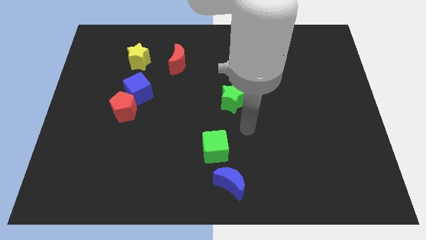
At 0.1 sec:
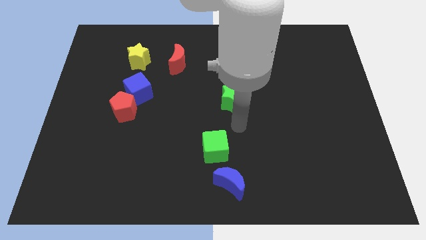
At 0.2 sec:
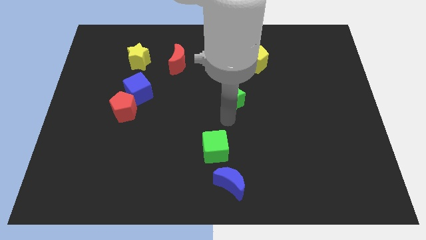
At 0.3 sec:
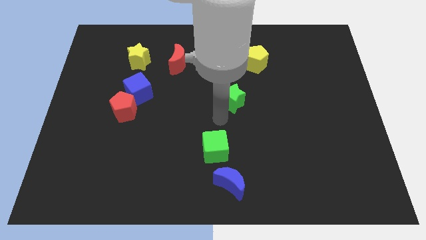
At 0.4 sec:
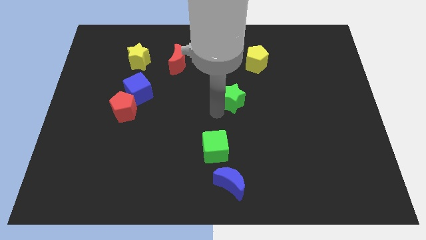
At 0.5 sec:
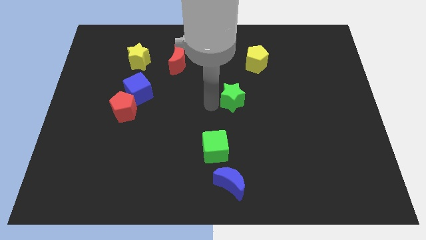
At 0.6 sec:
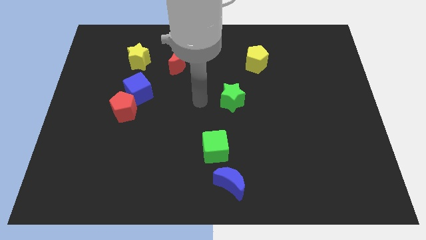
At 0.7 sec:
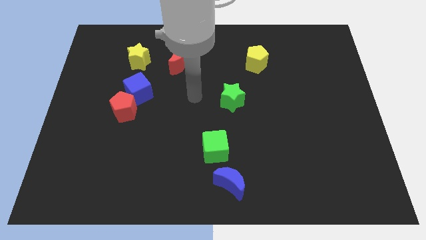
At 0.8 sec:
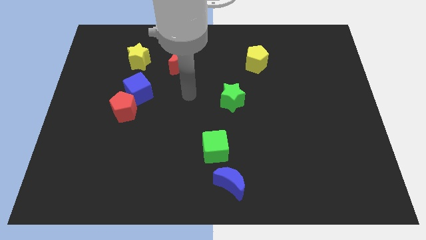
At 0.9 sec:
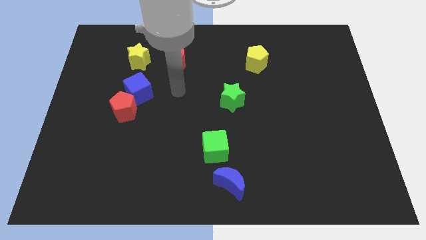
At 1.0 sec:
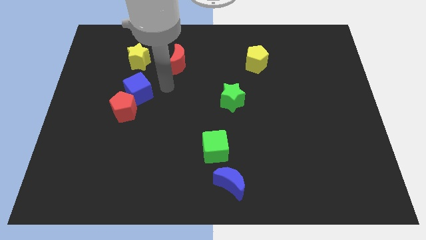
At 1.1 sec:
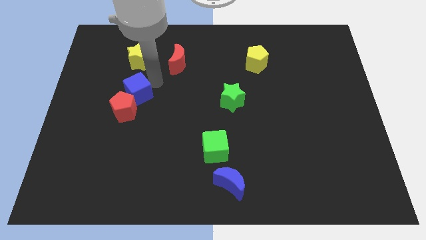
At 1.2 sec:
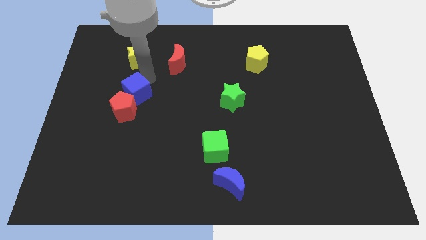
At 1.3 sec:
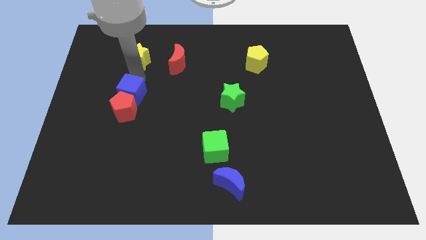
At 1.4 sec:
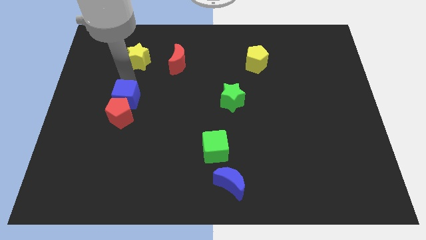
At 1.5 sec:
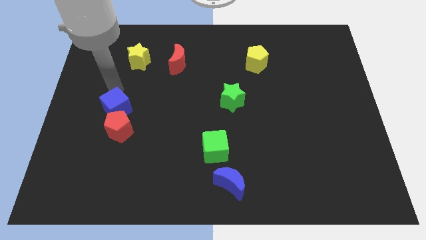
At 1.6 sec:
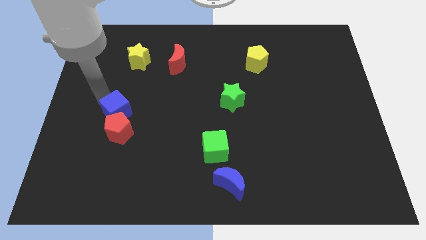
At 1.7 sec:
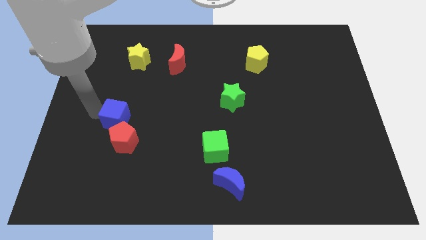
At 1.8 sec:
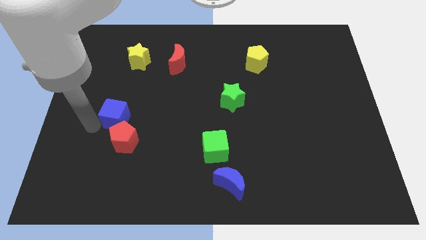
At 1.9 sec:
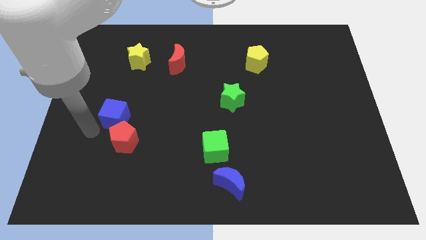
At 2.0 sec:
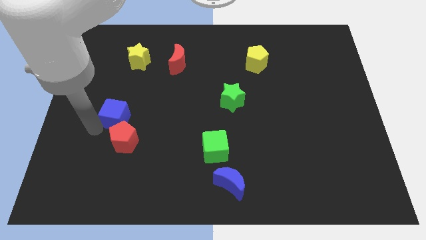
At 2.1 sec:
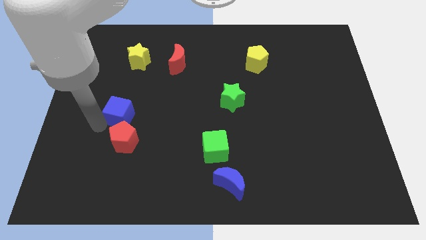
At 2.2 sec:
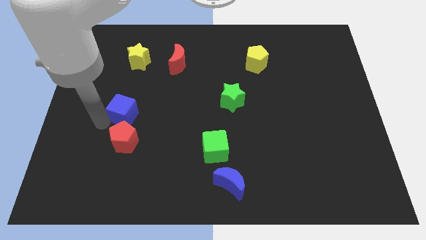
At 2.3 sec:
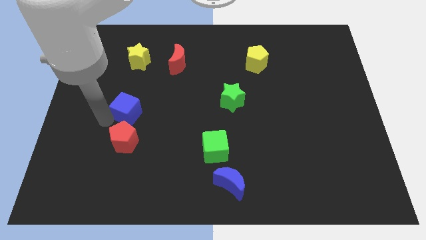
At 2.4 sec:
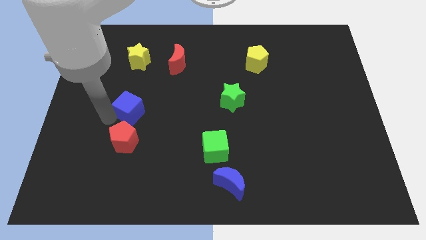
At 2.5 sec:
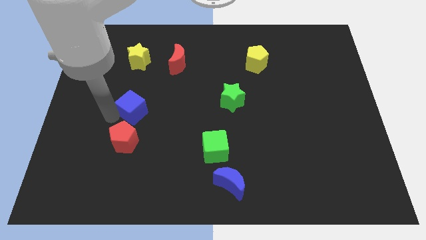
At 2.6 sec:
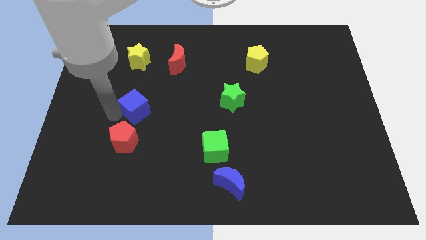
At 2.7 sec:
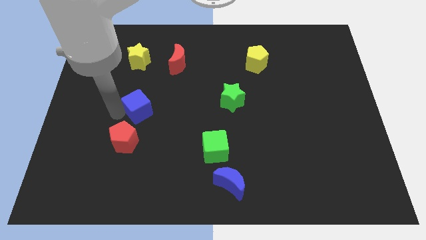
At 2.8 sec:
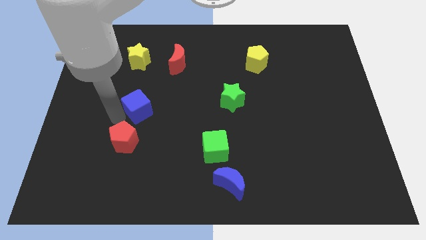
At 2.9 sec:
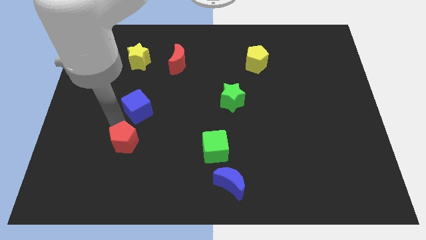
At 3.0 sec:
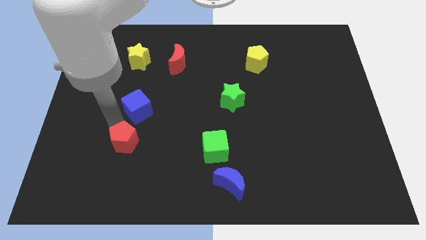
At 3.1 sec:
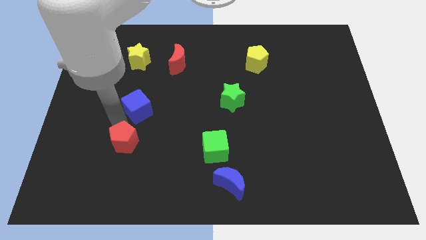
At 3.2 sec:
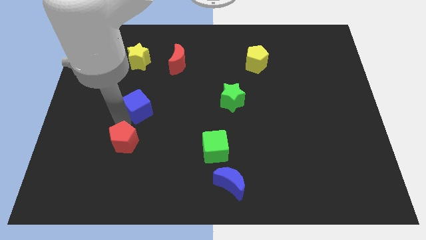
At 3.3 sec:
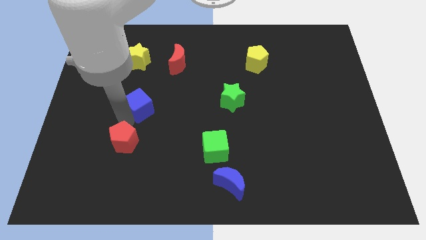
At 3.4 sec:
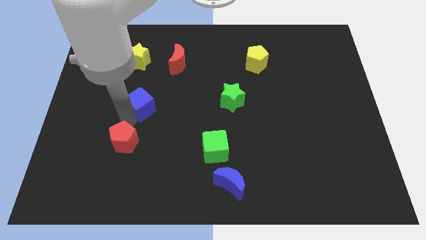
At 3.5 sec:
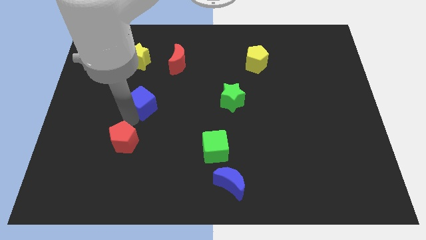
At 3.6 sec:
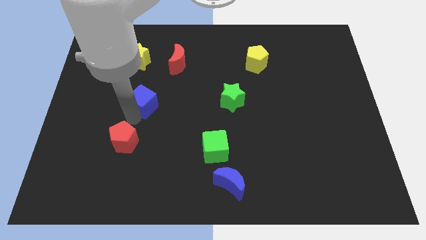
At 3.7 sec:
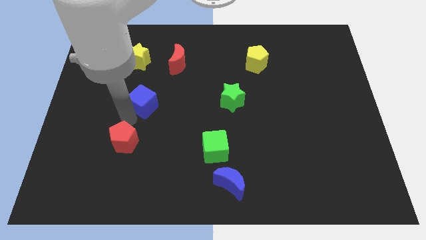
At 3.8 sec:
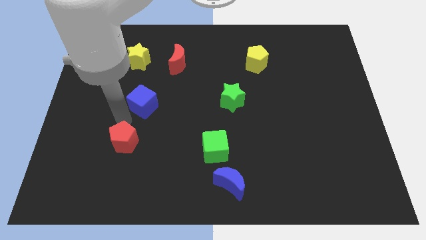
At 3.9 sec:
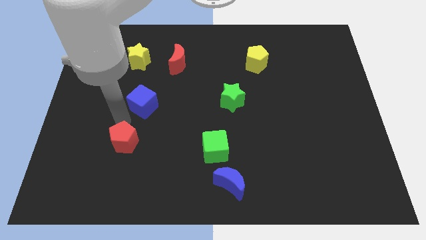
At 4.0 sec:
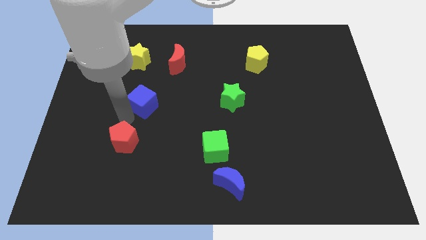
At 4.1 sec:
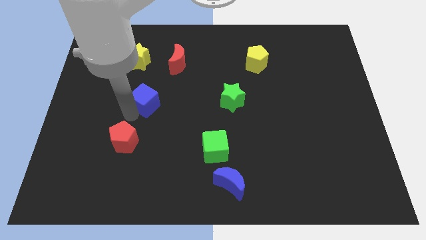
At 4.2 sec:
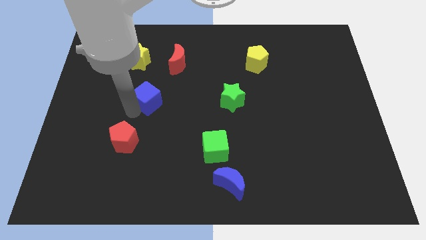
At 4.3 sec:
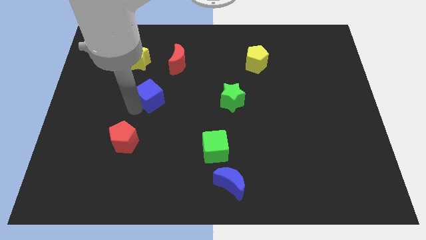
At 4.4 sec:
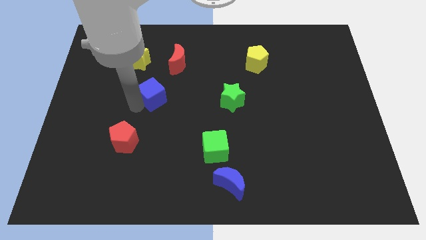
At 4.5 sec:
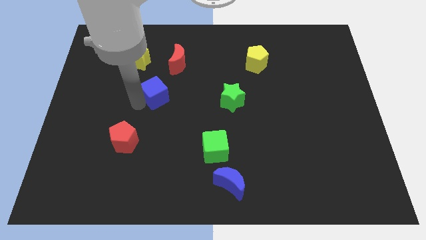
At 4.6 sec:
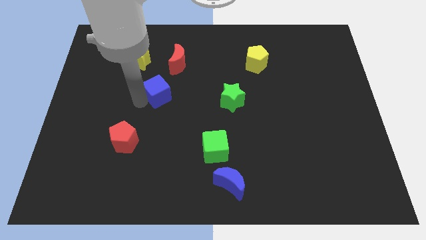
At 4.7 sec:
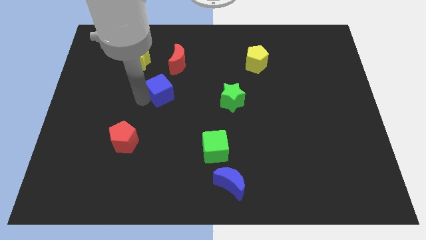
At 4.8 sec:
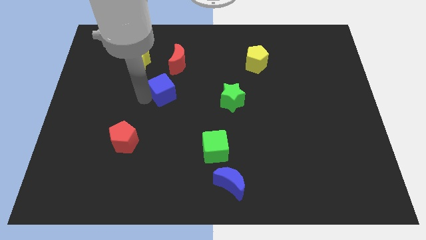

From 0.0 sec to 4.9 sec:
push the blue cube to the middle

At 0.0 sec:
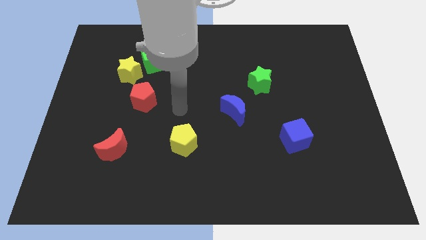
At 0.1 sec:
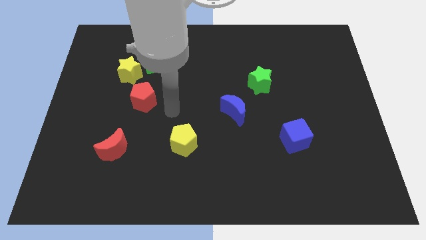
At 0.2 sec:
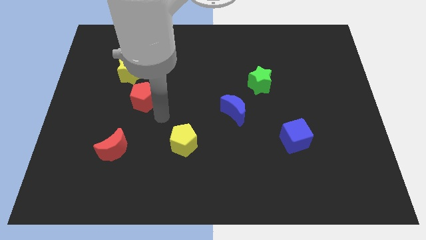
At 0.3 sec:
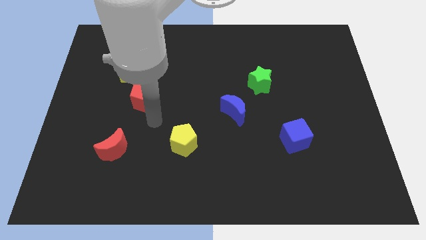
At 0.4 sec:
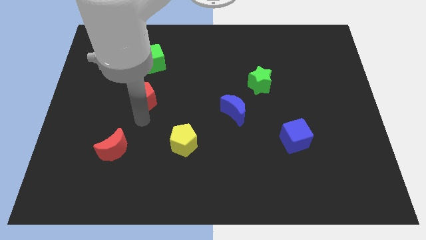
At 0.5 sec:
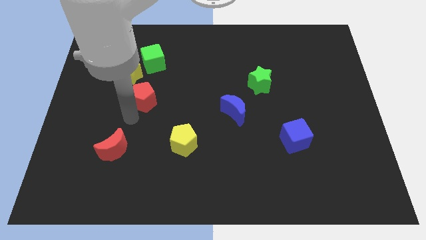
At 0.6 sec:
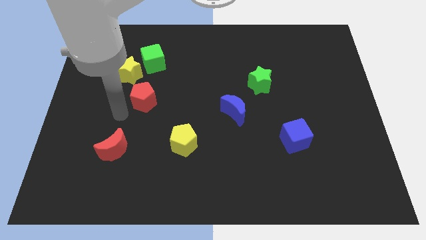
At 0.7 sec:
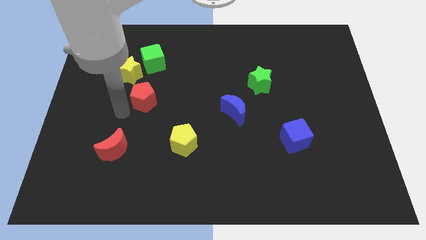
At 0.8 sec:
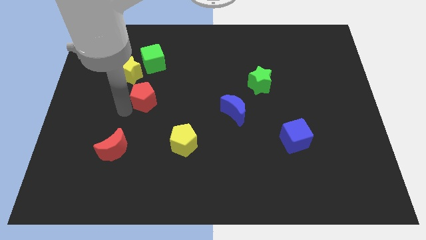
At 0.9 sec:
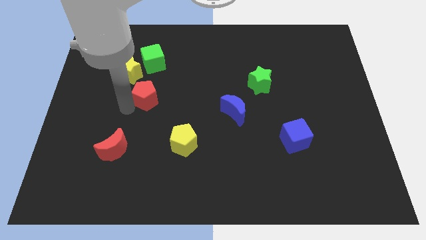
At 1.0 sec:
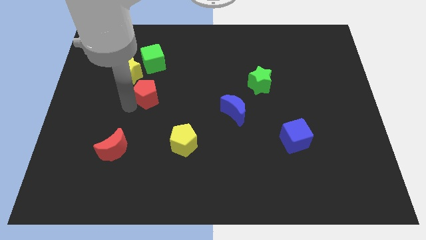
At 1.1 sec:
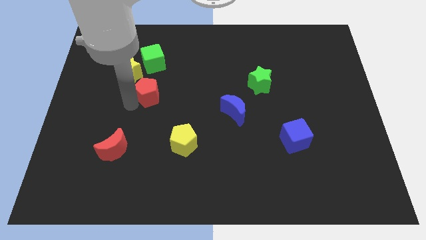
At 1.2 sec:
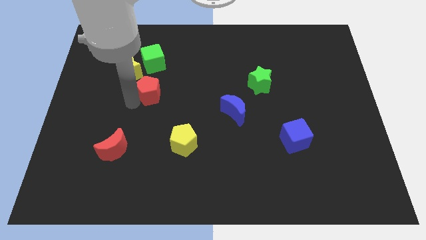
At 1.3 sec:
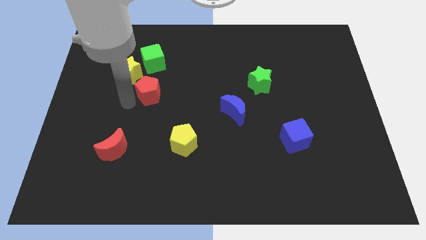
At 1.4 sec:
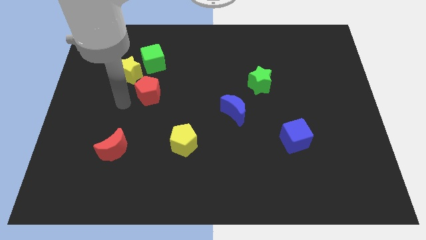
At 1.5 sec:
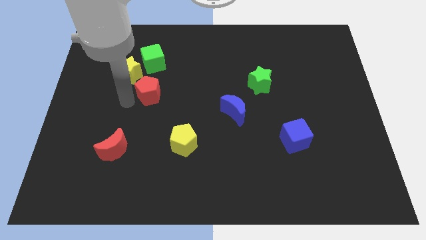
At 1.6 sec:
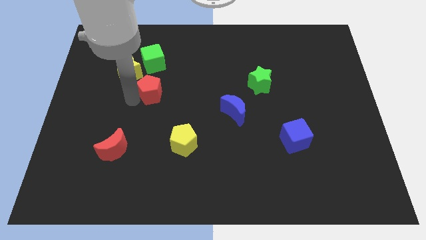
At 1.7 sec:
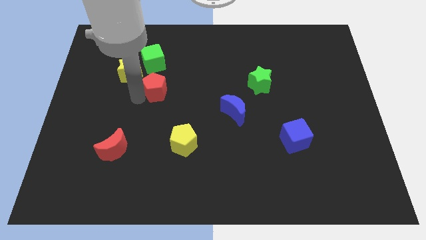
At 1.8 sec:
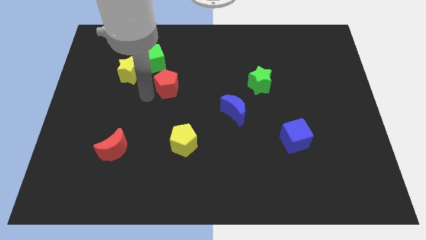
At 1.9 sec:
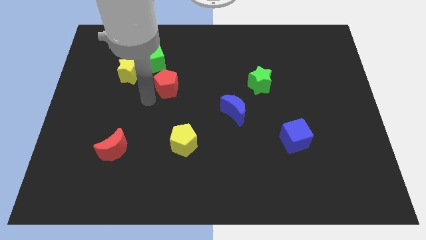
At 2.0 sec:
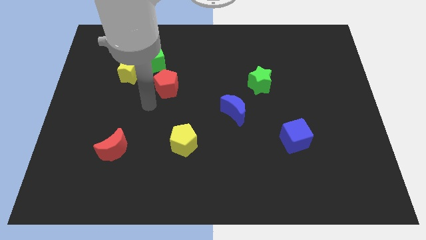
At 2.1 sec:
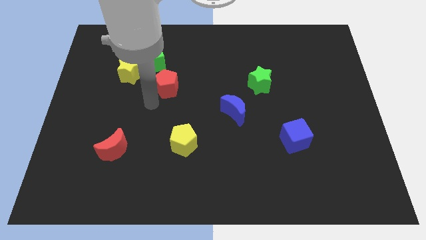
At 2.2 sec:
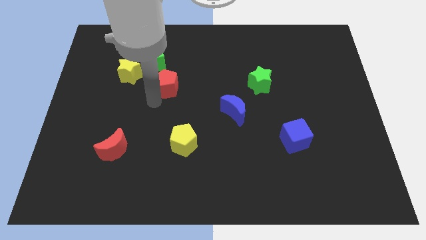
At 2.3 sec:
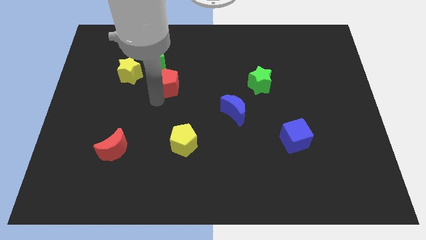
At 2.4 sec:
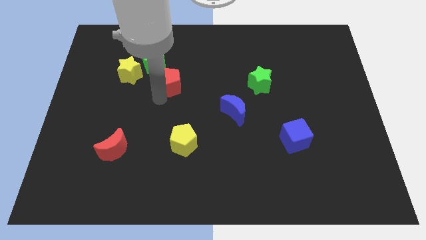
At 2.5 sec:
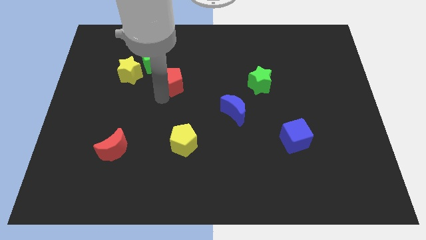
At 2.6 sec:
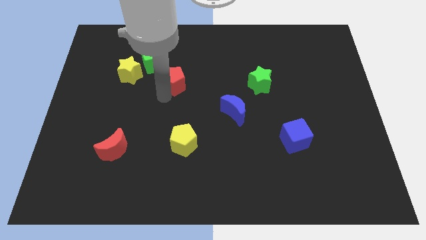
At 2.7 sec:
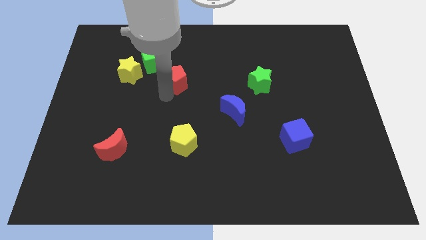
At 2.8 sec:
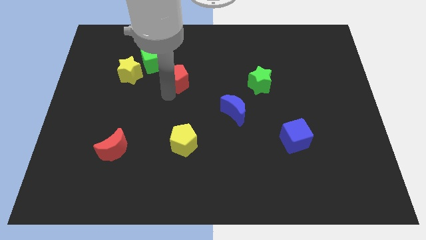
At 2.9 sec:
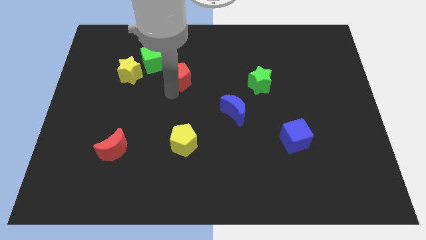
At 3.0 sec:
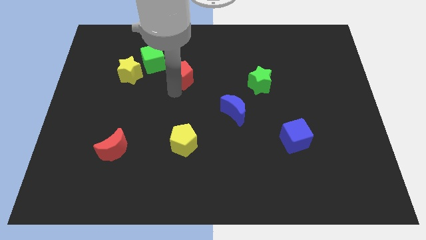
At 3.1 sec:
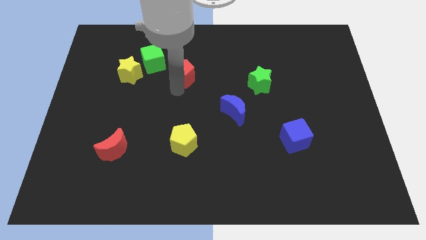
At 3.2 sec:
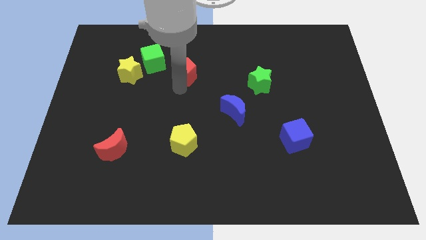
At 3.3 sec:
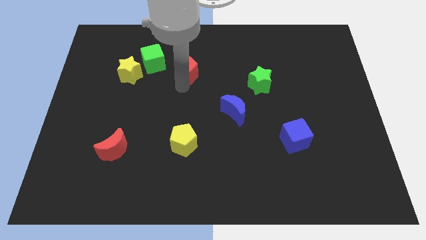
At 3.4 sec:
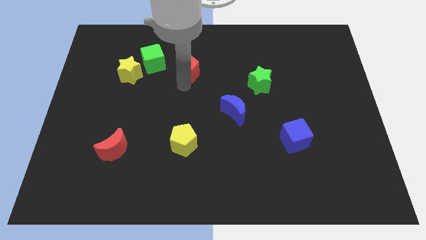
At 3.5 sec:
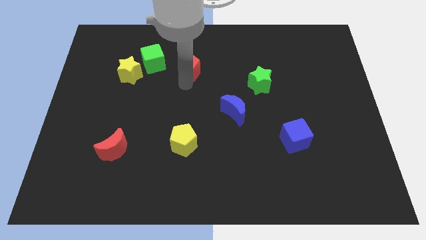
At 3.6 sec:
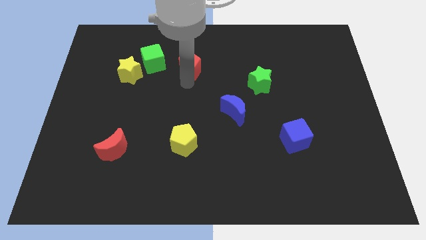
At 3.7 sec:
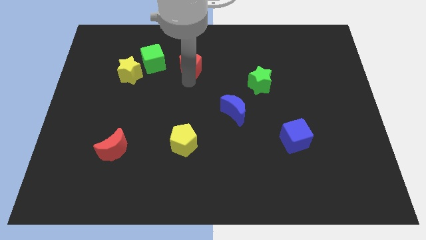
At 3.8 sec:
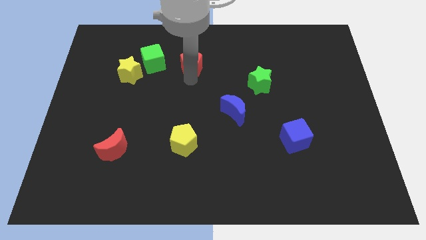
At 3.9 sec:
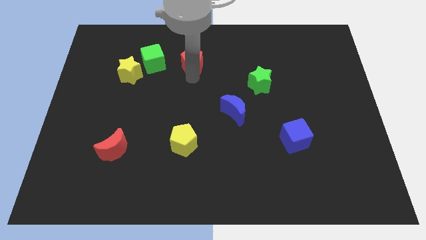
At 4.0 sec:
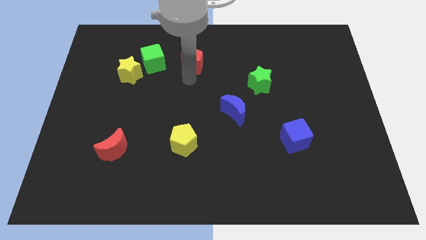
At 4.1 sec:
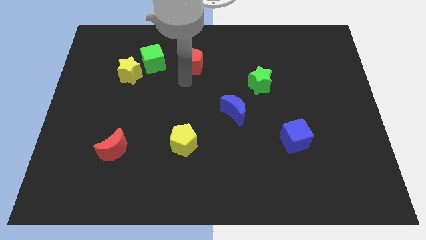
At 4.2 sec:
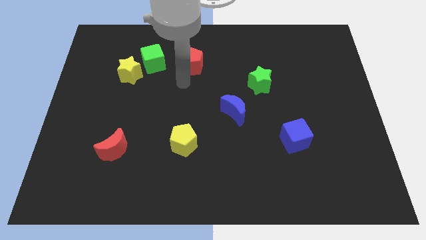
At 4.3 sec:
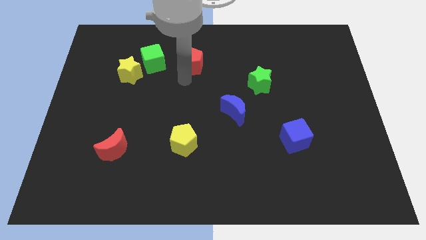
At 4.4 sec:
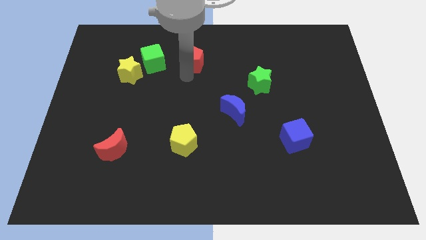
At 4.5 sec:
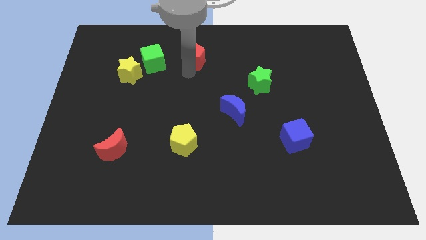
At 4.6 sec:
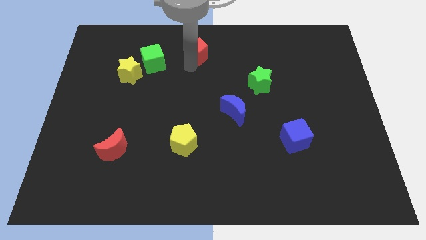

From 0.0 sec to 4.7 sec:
slide the red pentagon to the towards your base
